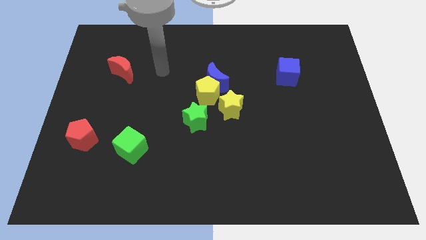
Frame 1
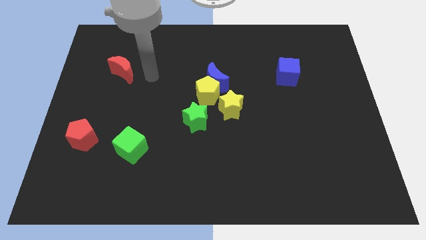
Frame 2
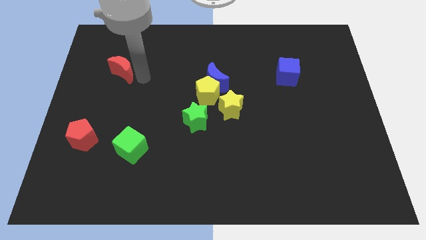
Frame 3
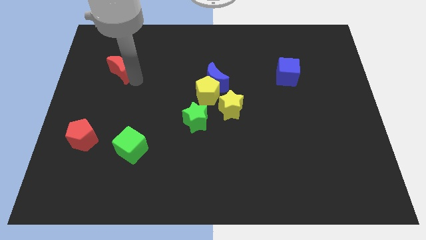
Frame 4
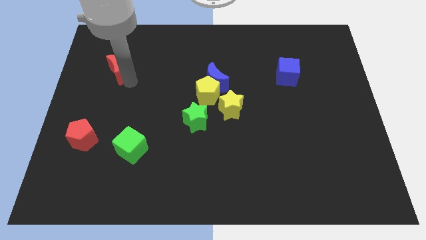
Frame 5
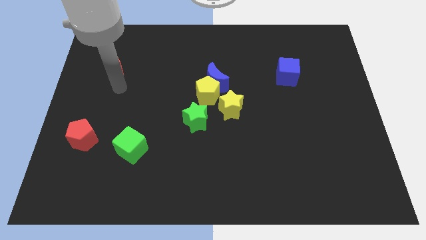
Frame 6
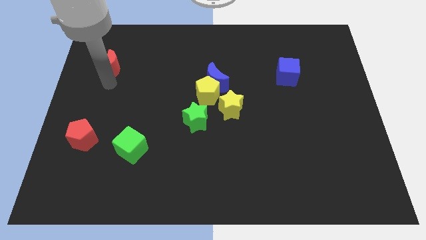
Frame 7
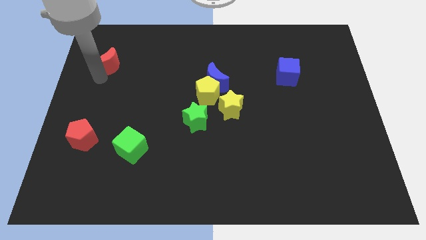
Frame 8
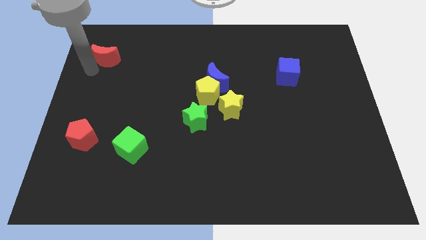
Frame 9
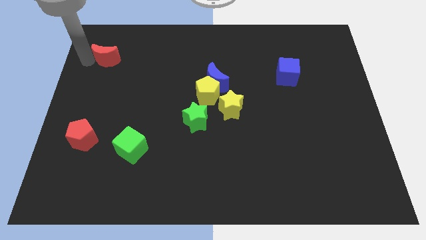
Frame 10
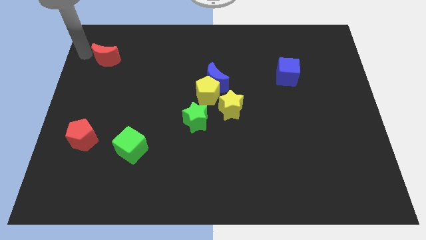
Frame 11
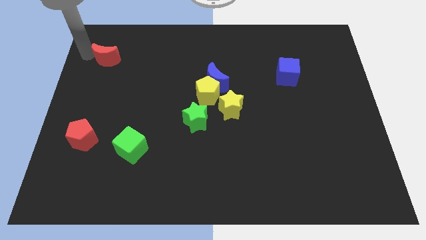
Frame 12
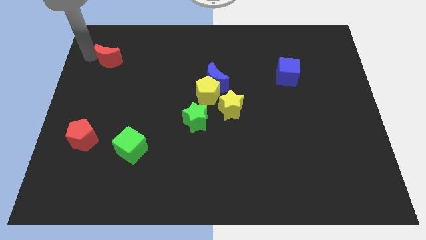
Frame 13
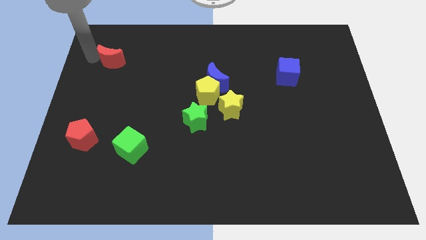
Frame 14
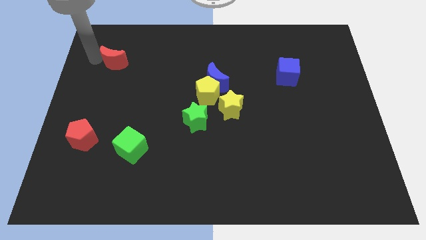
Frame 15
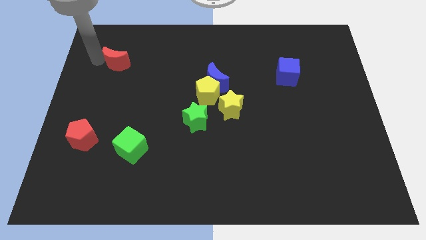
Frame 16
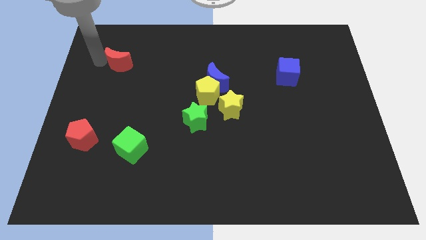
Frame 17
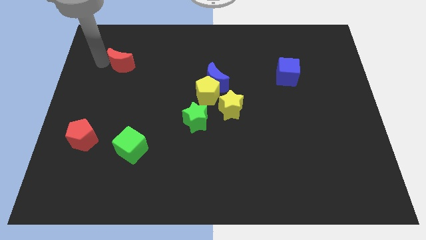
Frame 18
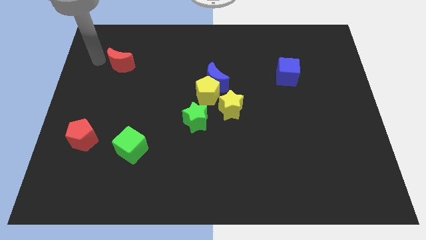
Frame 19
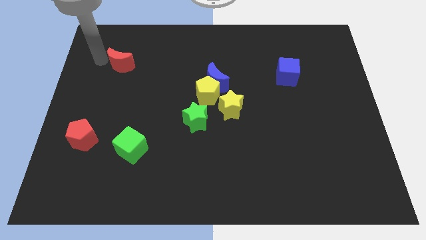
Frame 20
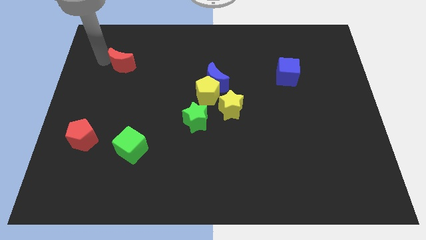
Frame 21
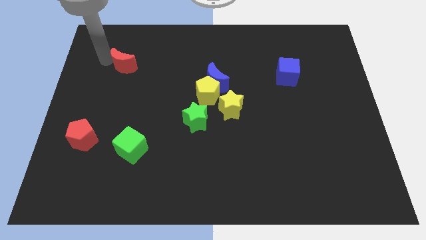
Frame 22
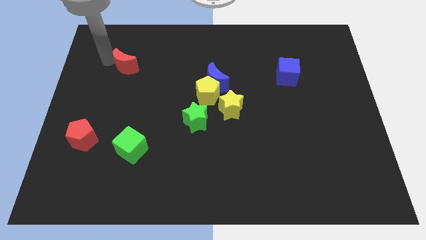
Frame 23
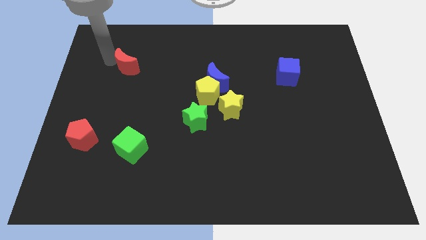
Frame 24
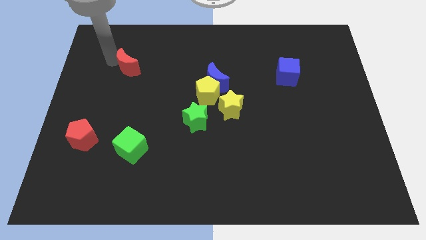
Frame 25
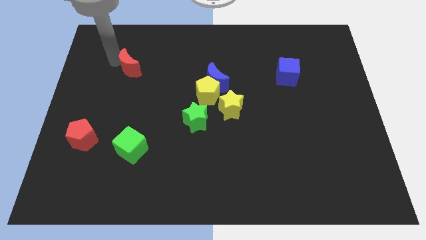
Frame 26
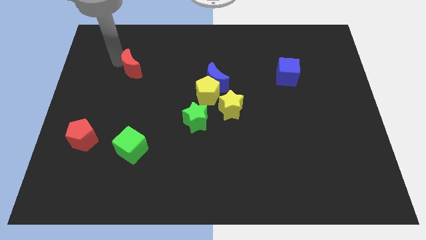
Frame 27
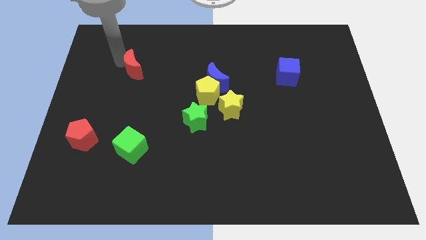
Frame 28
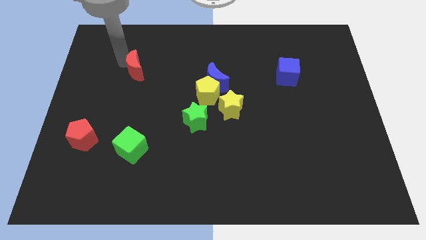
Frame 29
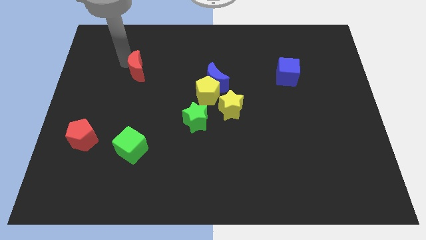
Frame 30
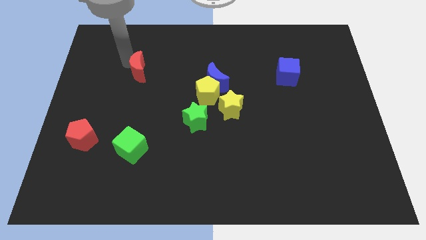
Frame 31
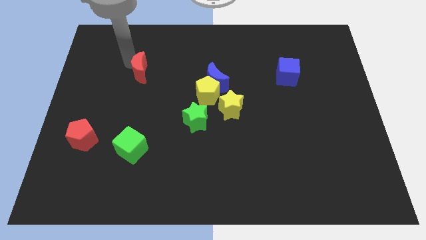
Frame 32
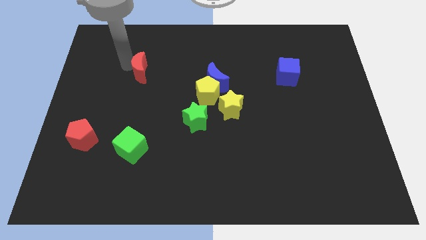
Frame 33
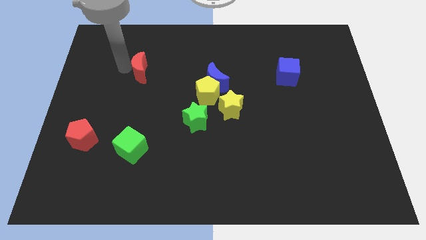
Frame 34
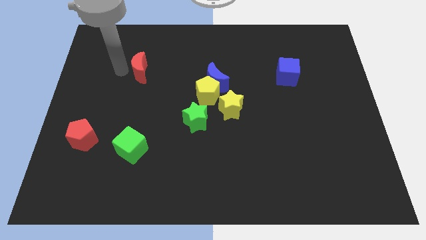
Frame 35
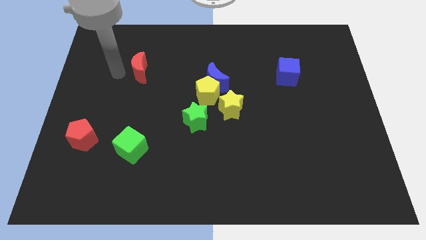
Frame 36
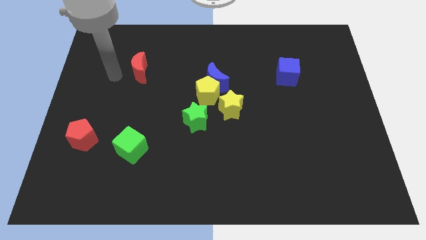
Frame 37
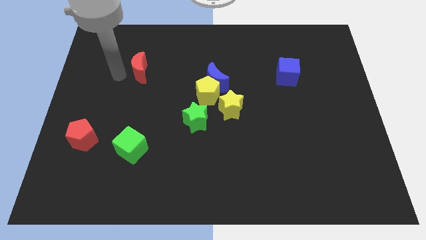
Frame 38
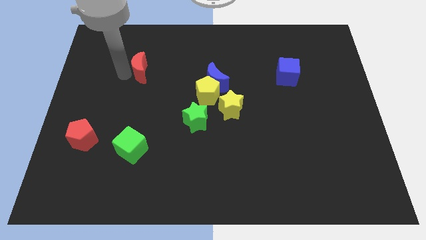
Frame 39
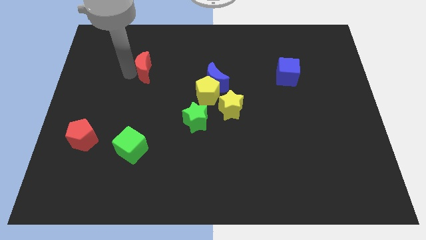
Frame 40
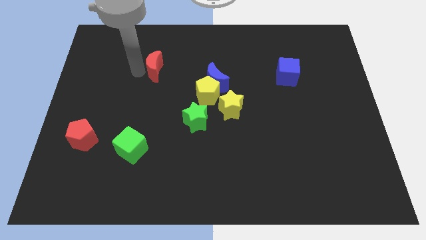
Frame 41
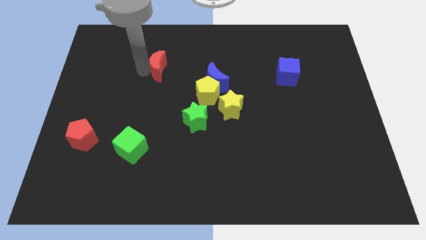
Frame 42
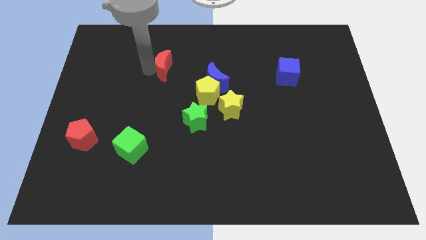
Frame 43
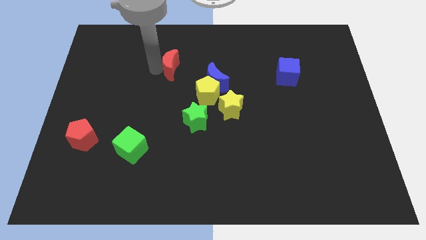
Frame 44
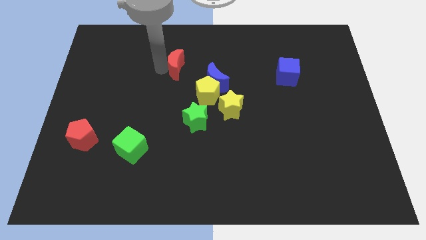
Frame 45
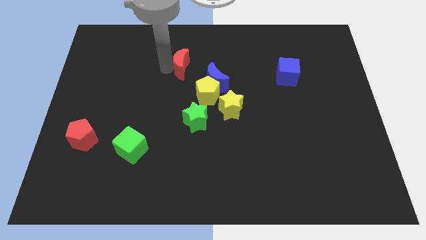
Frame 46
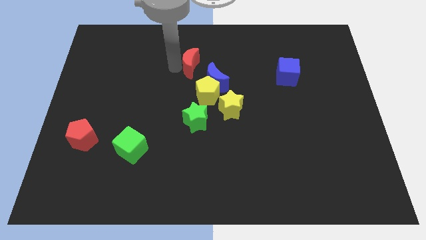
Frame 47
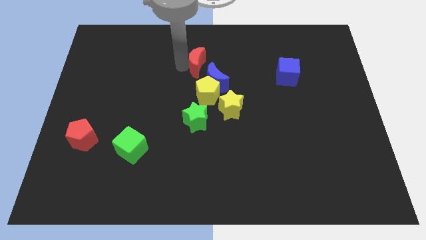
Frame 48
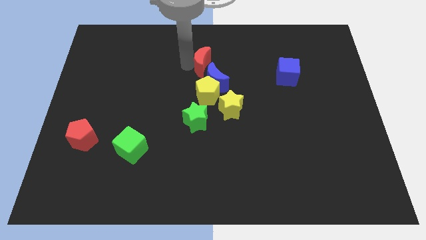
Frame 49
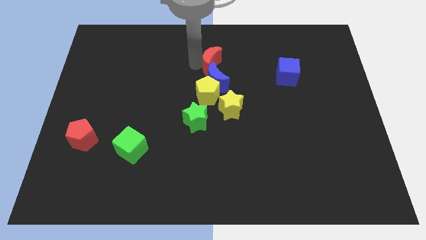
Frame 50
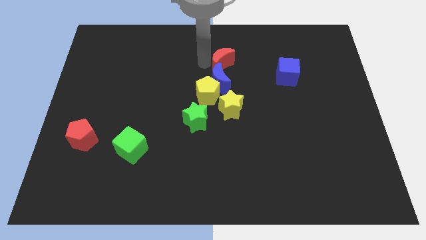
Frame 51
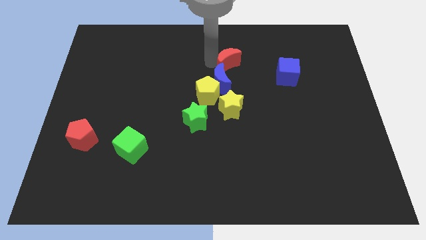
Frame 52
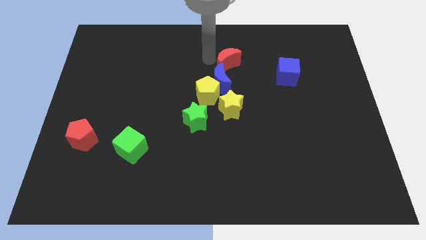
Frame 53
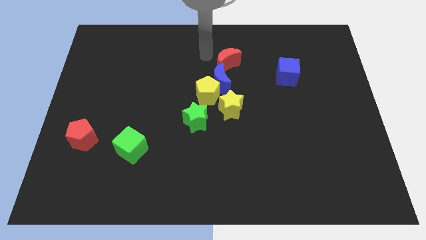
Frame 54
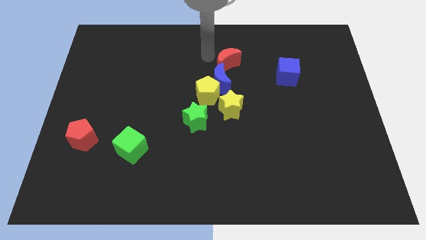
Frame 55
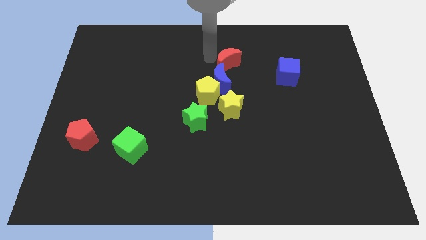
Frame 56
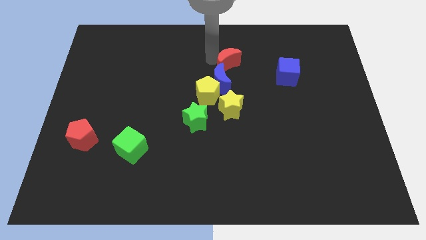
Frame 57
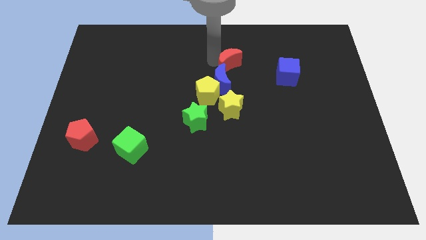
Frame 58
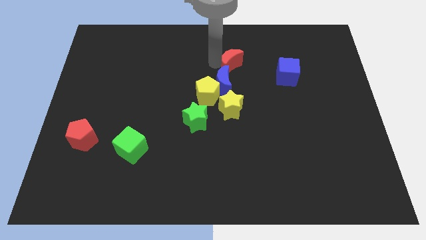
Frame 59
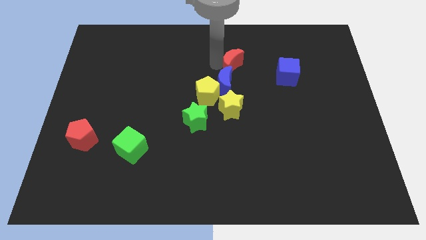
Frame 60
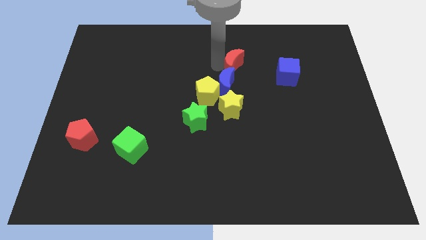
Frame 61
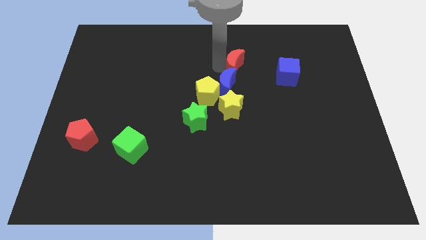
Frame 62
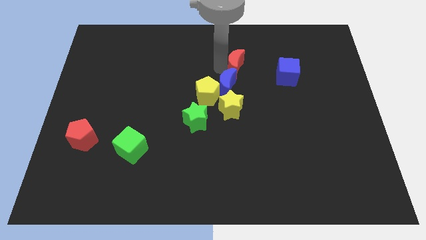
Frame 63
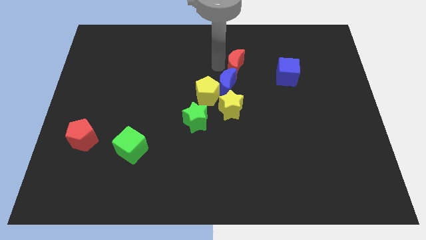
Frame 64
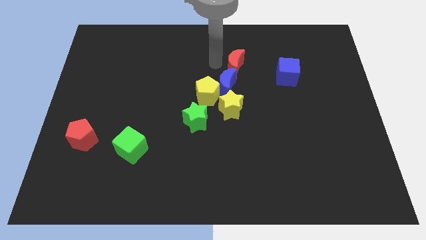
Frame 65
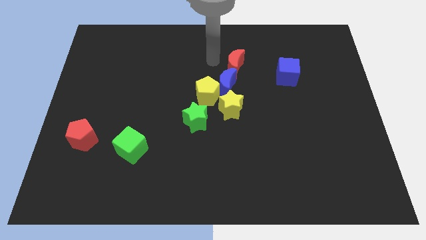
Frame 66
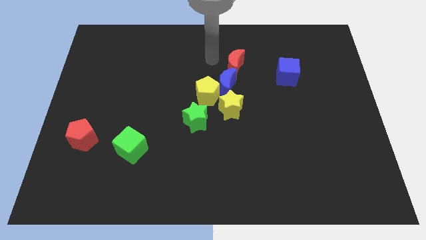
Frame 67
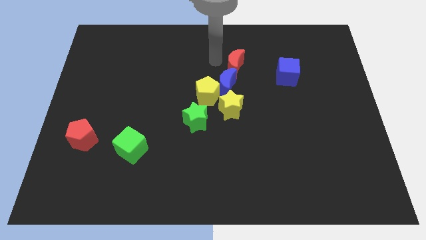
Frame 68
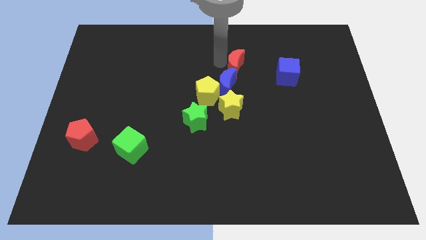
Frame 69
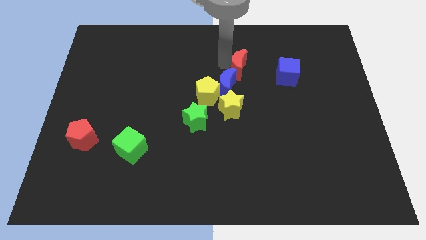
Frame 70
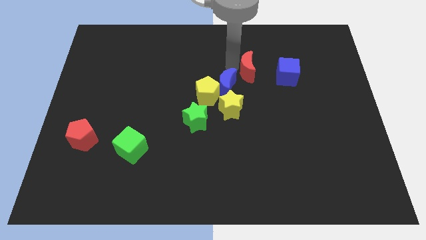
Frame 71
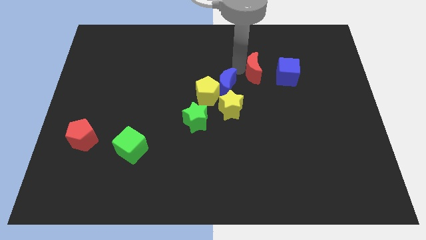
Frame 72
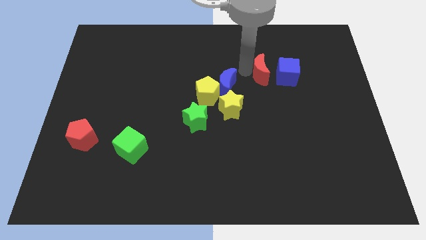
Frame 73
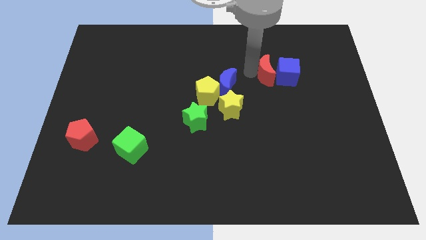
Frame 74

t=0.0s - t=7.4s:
put the red moon next to the blue cube
